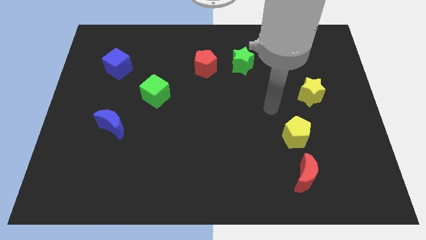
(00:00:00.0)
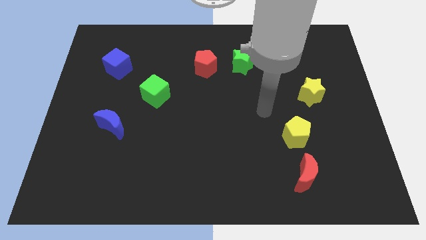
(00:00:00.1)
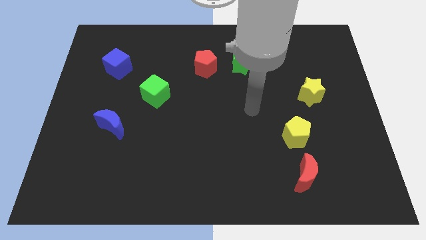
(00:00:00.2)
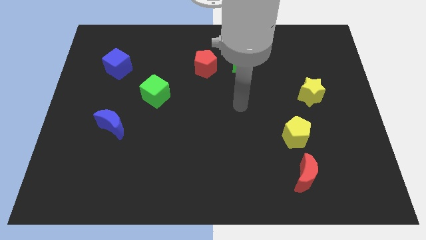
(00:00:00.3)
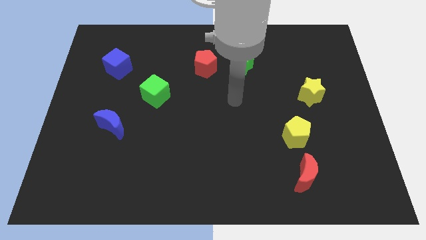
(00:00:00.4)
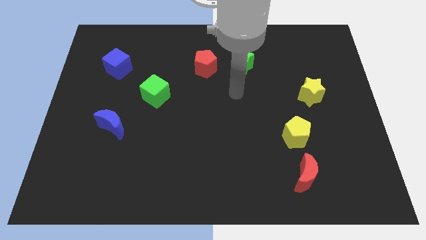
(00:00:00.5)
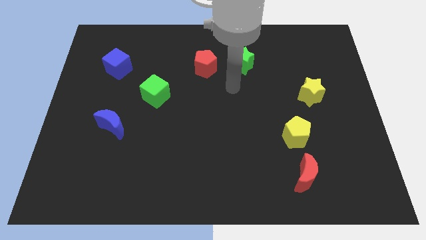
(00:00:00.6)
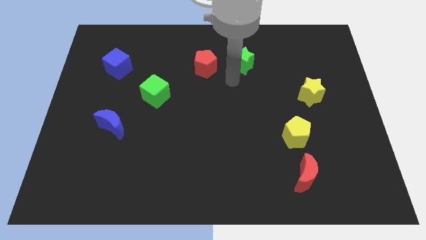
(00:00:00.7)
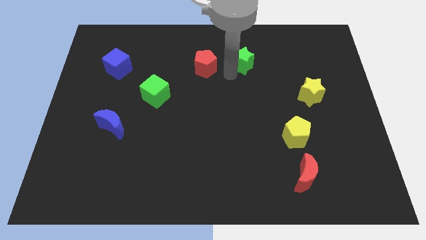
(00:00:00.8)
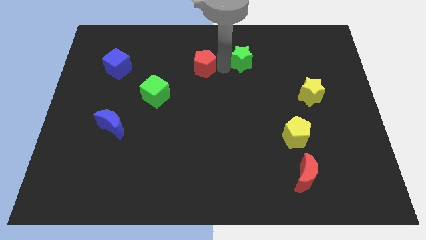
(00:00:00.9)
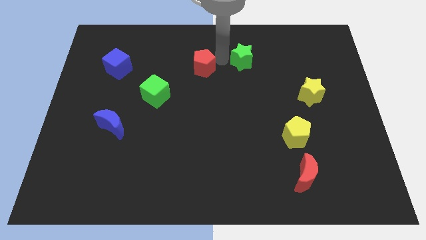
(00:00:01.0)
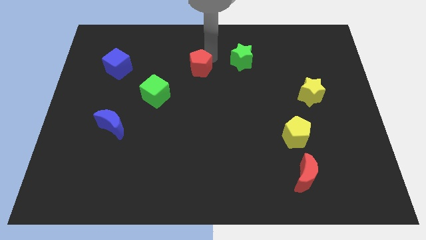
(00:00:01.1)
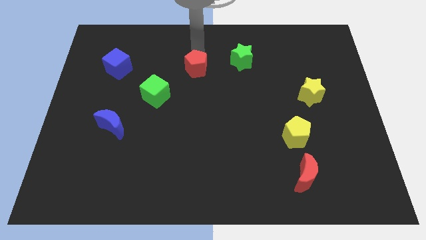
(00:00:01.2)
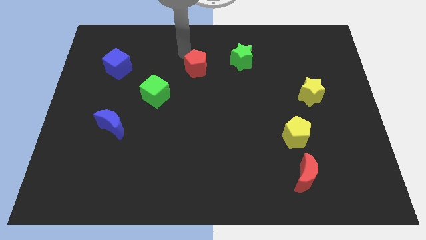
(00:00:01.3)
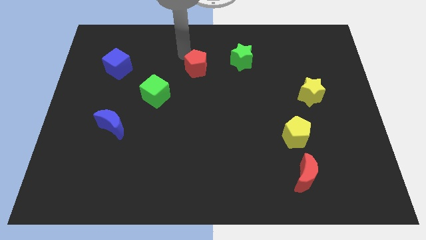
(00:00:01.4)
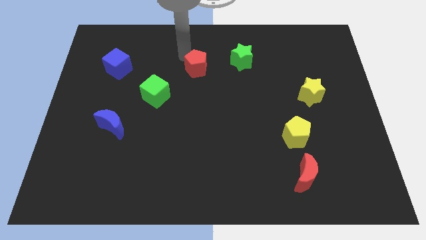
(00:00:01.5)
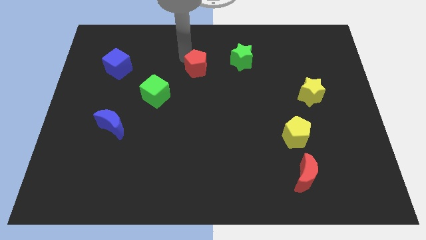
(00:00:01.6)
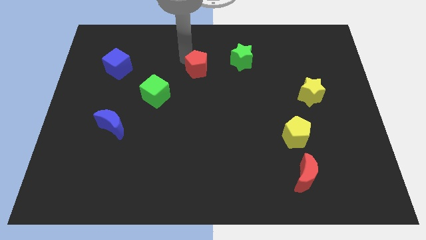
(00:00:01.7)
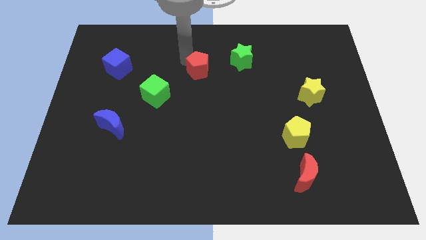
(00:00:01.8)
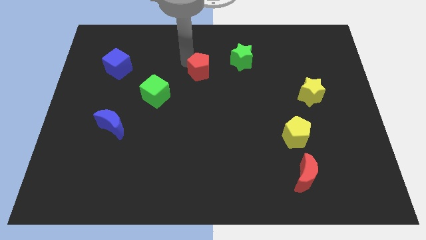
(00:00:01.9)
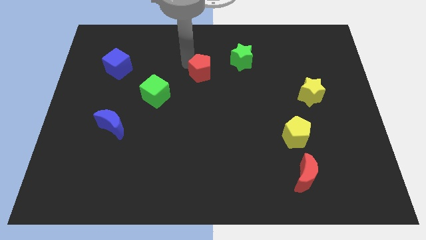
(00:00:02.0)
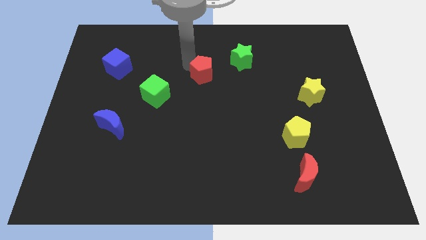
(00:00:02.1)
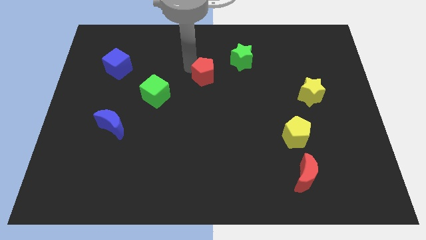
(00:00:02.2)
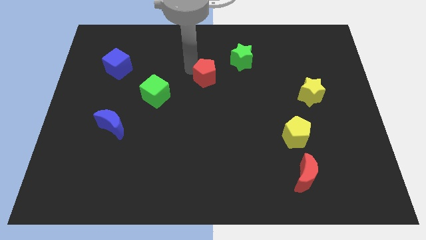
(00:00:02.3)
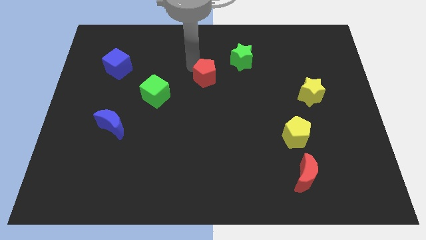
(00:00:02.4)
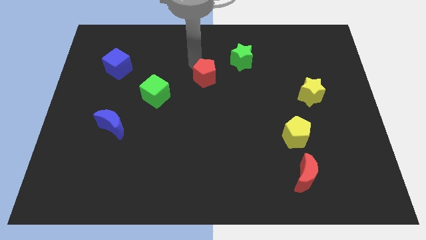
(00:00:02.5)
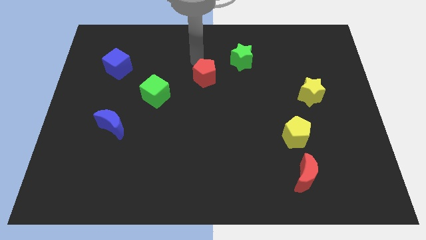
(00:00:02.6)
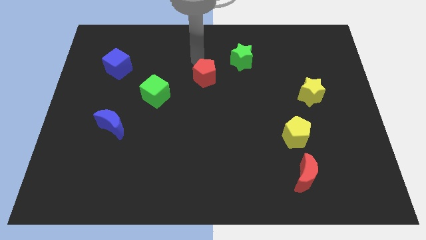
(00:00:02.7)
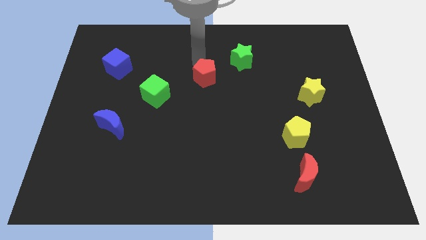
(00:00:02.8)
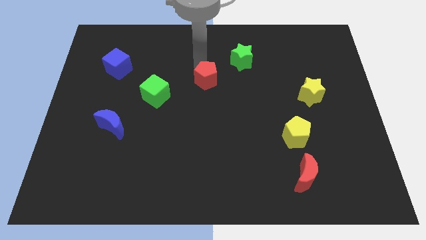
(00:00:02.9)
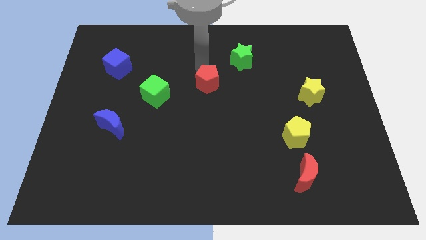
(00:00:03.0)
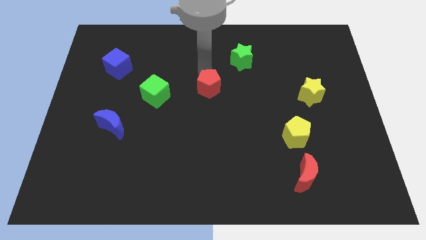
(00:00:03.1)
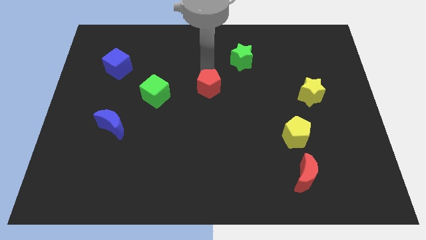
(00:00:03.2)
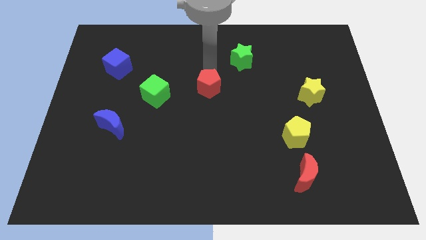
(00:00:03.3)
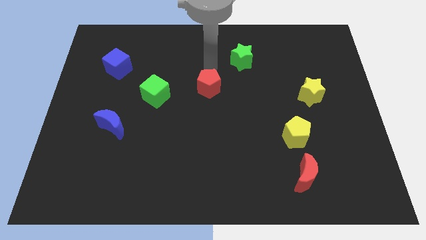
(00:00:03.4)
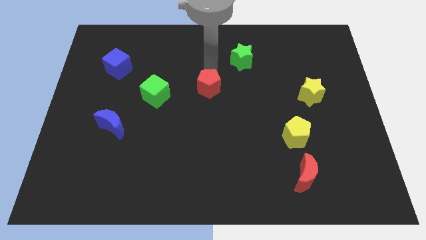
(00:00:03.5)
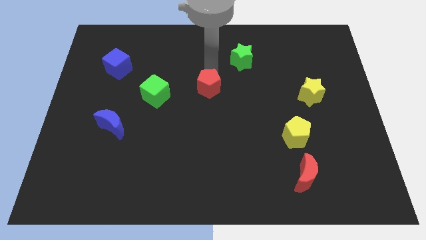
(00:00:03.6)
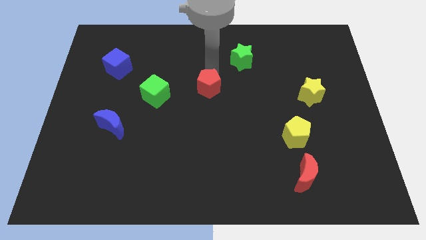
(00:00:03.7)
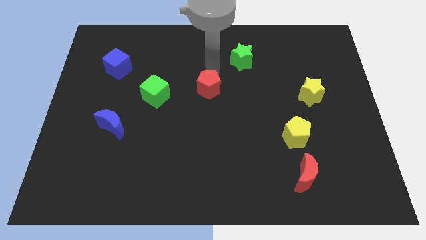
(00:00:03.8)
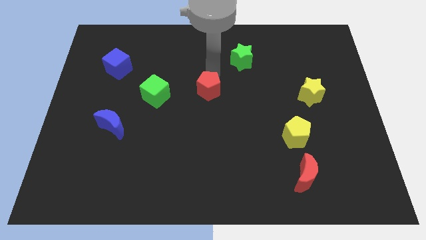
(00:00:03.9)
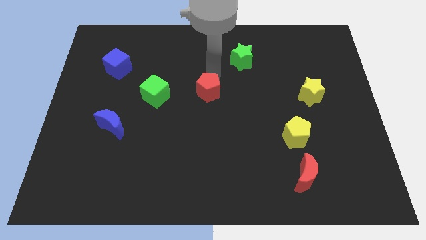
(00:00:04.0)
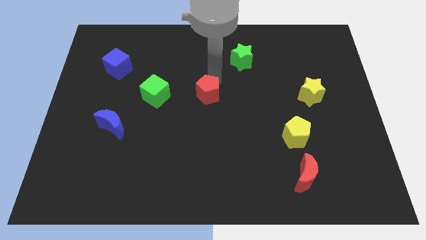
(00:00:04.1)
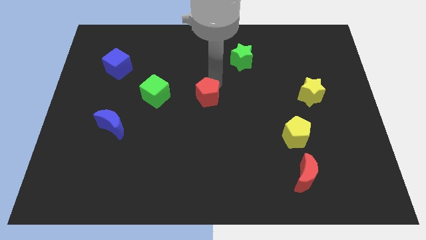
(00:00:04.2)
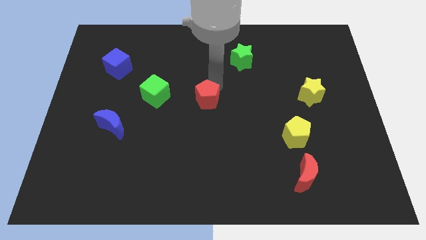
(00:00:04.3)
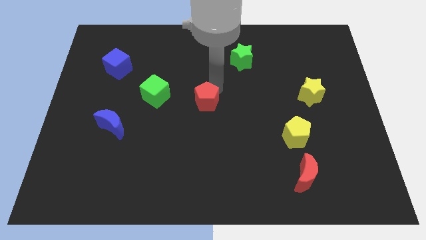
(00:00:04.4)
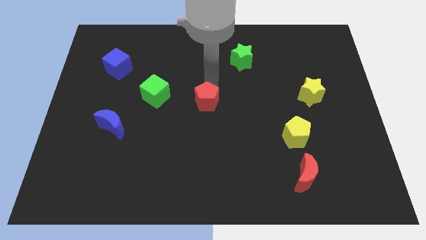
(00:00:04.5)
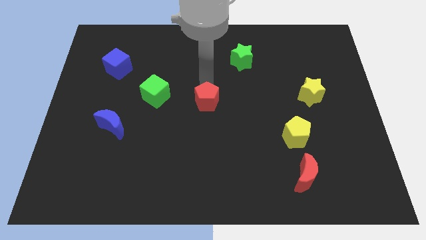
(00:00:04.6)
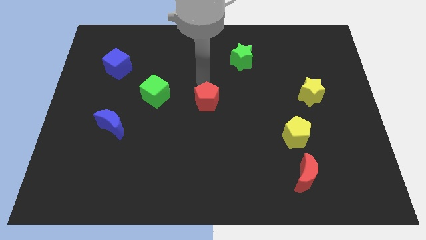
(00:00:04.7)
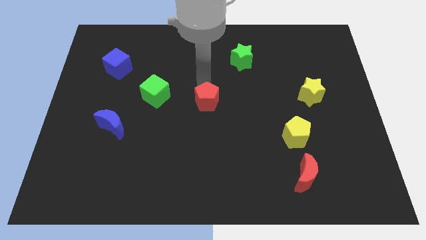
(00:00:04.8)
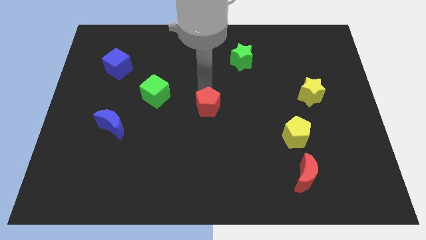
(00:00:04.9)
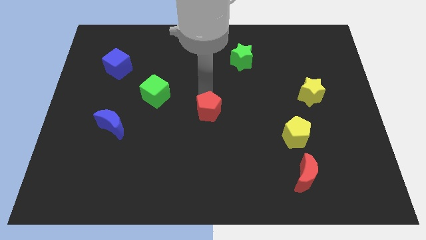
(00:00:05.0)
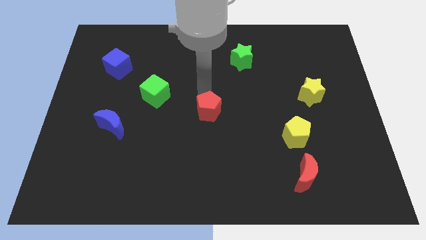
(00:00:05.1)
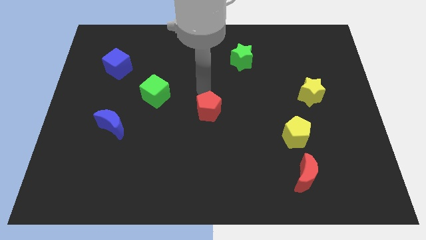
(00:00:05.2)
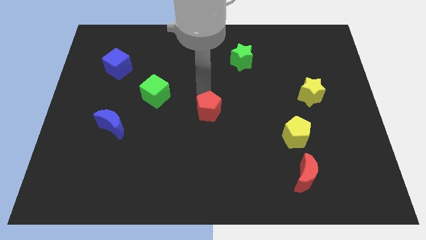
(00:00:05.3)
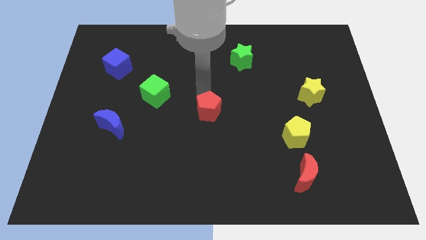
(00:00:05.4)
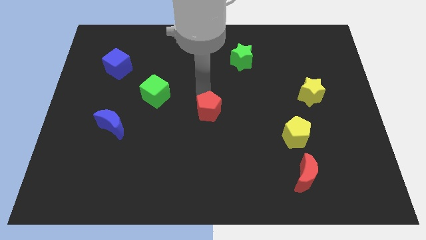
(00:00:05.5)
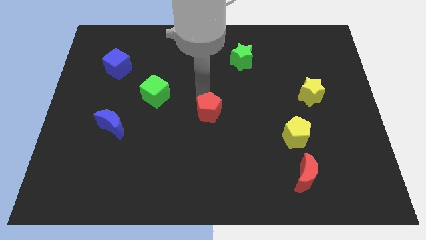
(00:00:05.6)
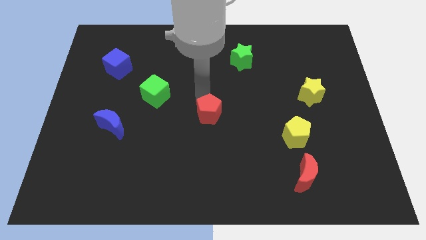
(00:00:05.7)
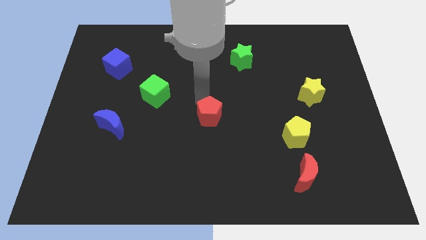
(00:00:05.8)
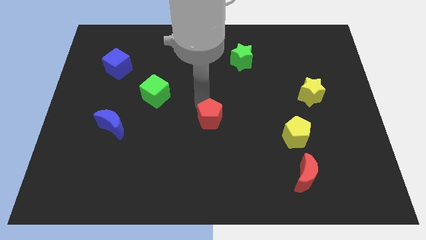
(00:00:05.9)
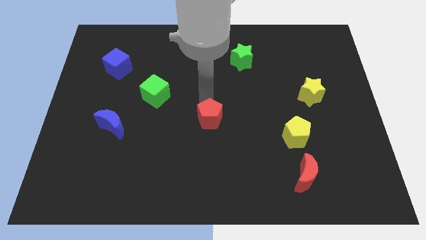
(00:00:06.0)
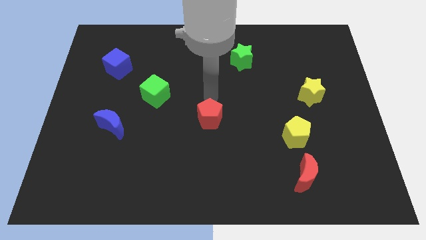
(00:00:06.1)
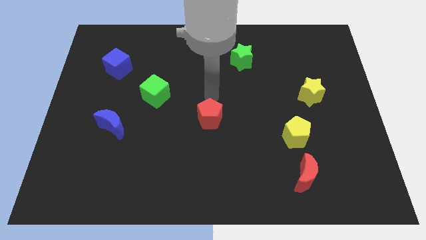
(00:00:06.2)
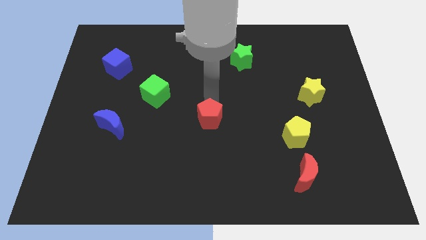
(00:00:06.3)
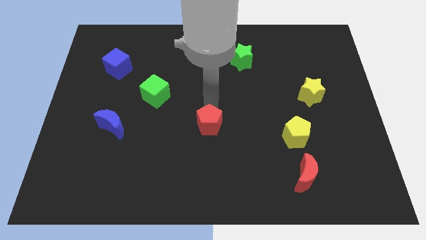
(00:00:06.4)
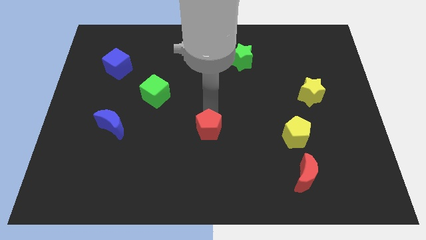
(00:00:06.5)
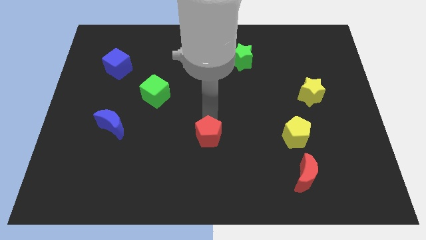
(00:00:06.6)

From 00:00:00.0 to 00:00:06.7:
move the red pentagon downwards

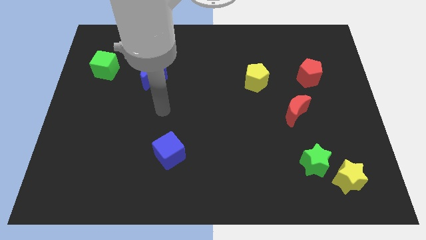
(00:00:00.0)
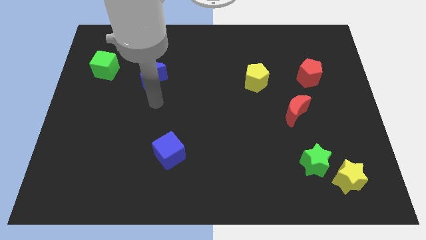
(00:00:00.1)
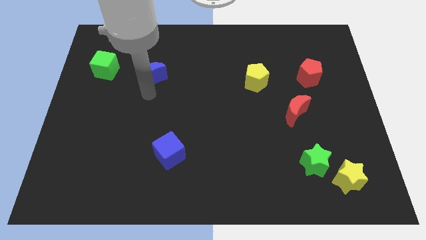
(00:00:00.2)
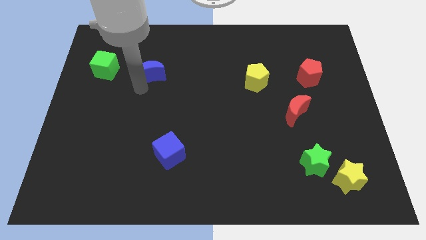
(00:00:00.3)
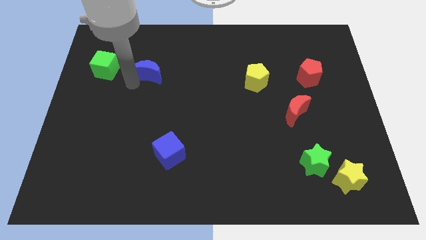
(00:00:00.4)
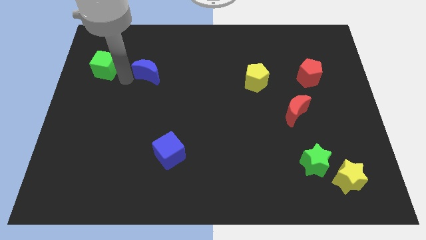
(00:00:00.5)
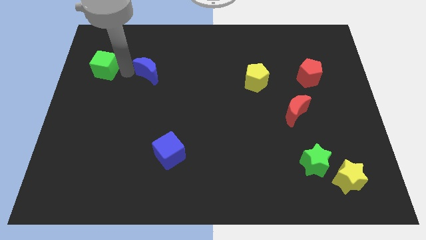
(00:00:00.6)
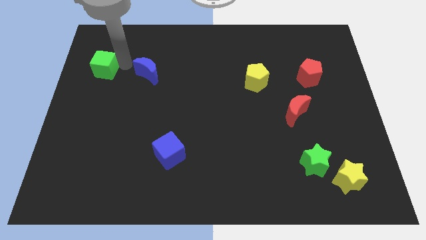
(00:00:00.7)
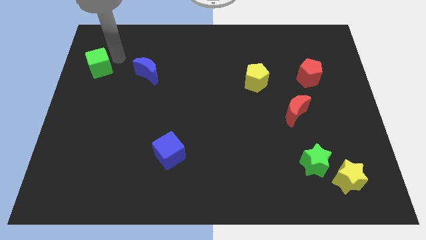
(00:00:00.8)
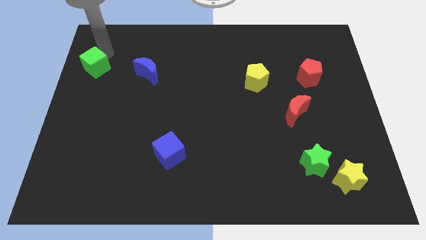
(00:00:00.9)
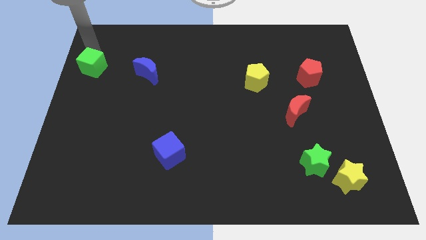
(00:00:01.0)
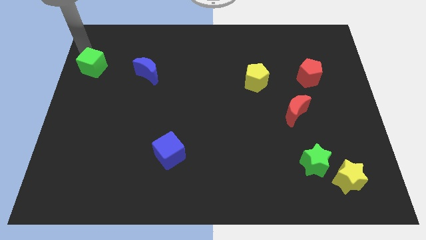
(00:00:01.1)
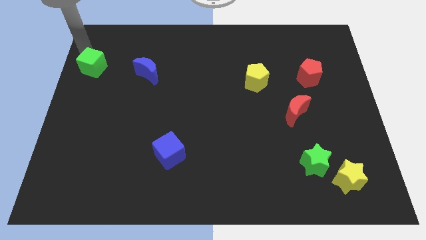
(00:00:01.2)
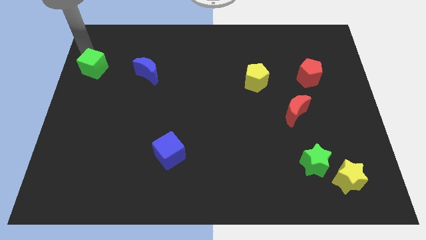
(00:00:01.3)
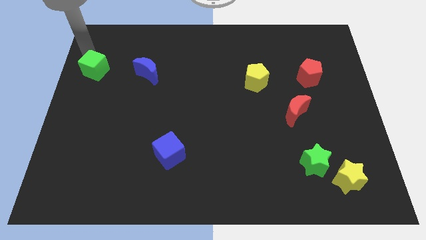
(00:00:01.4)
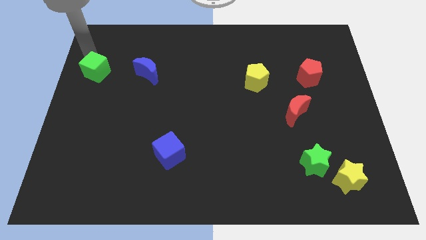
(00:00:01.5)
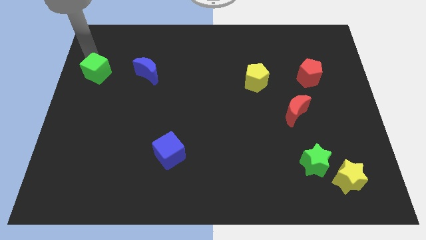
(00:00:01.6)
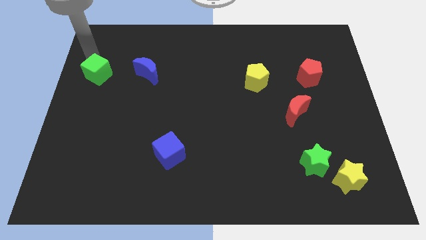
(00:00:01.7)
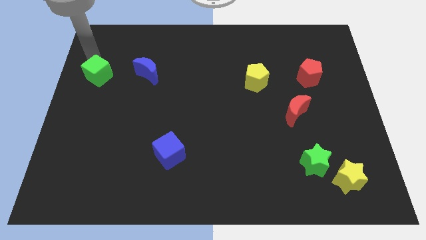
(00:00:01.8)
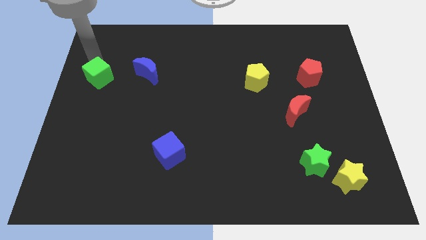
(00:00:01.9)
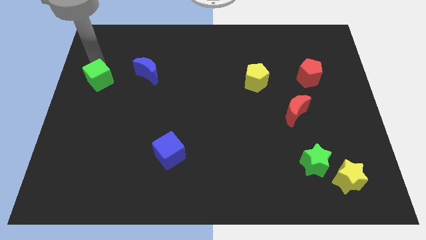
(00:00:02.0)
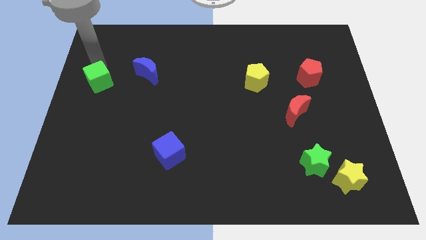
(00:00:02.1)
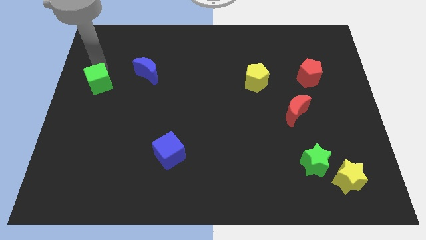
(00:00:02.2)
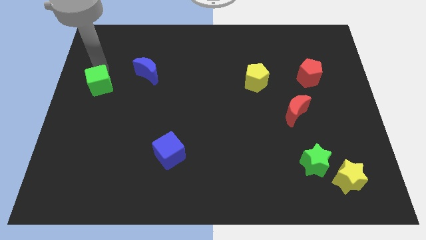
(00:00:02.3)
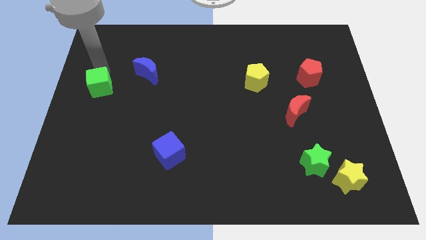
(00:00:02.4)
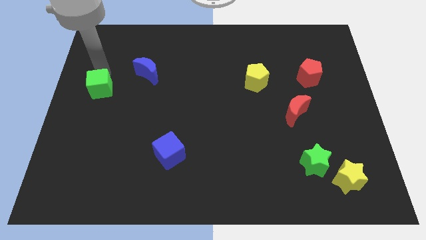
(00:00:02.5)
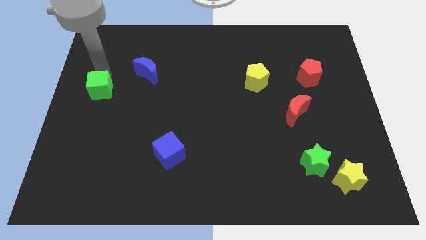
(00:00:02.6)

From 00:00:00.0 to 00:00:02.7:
slightly move the green cube down
